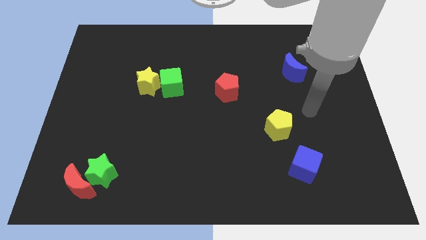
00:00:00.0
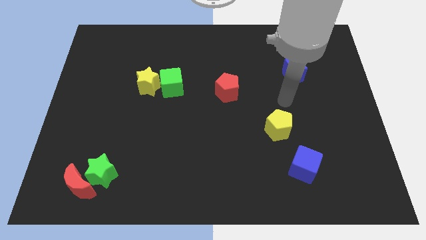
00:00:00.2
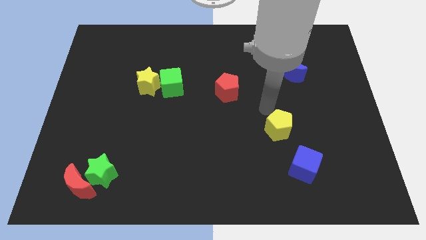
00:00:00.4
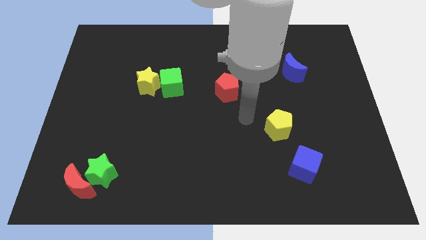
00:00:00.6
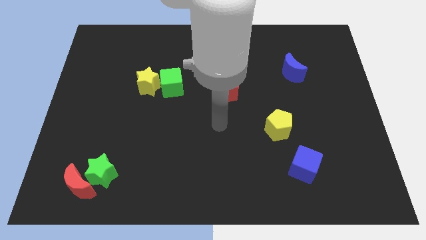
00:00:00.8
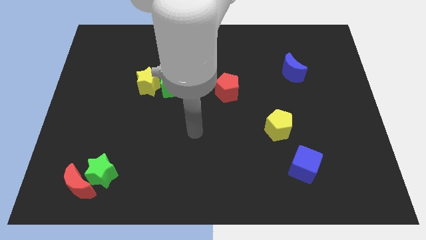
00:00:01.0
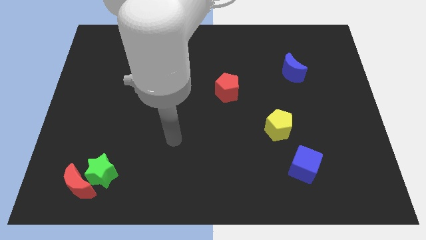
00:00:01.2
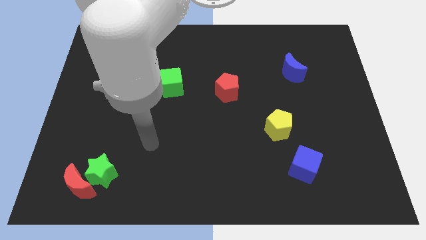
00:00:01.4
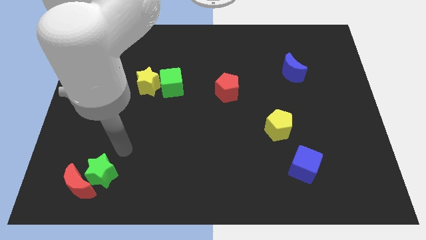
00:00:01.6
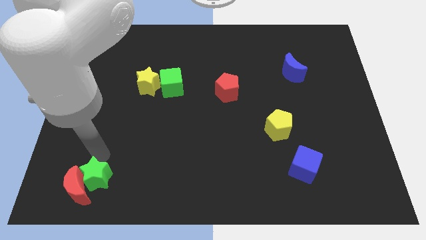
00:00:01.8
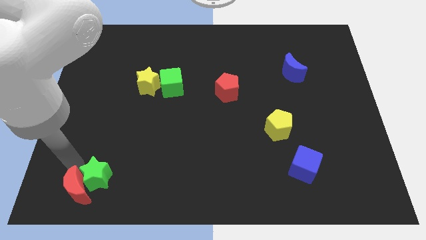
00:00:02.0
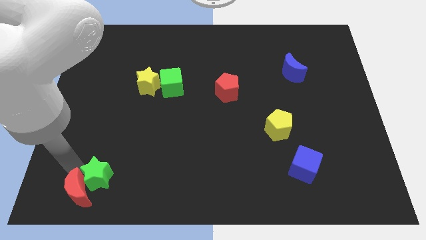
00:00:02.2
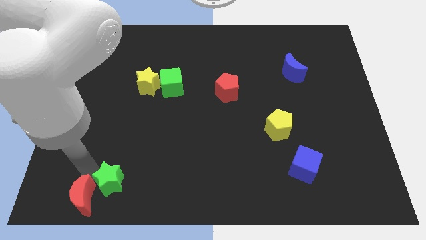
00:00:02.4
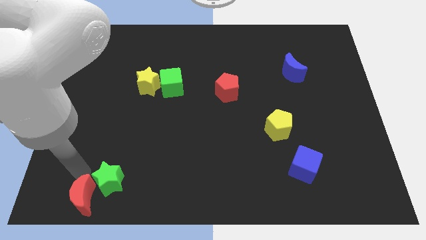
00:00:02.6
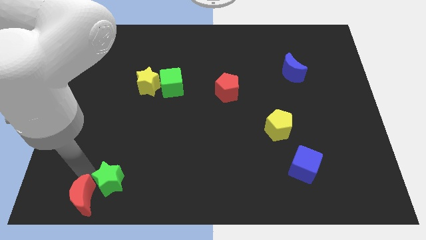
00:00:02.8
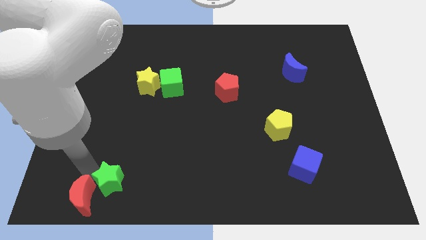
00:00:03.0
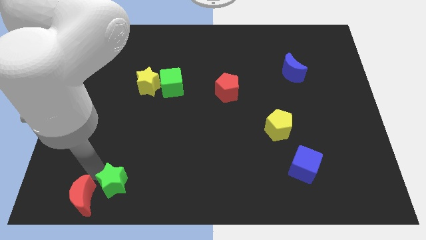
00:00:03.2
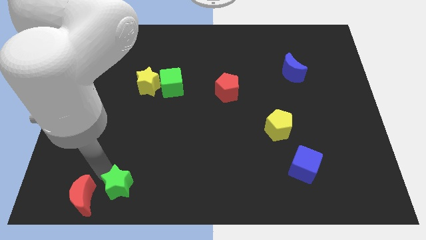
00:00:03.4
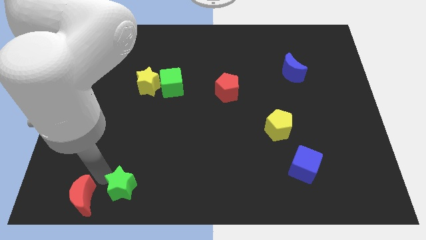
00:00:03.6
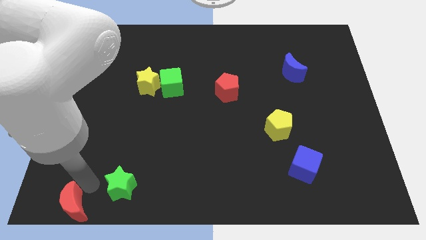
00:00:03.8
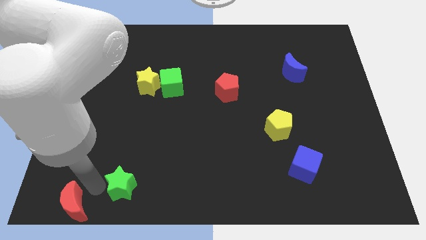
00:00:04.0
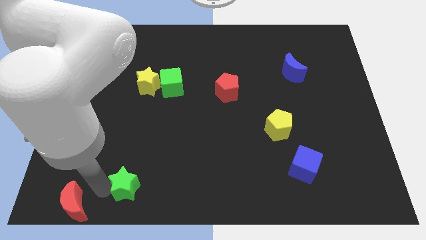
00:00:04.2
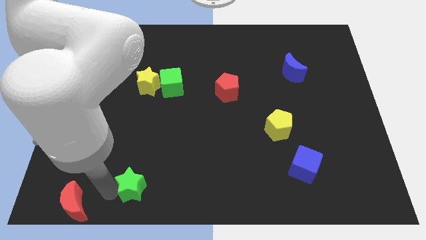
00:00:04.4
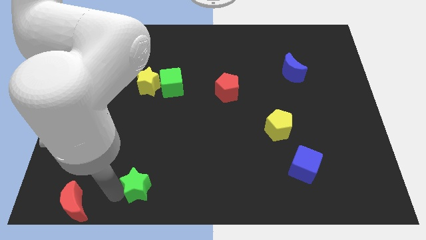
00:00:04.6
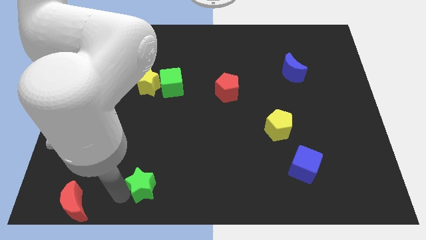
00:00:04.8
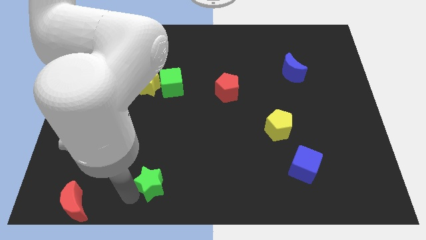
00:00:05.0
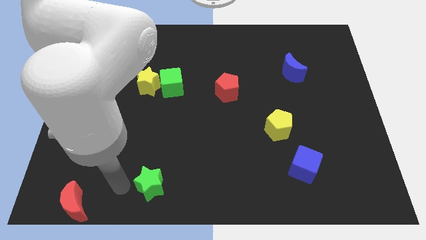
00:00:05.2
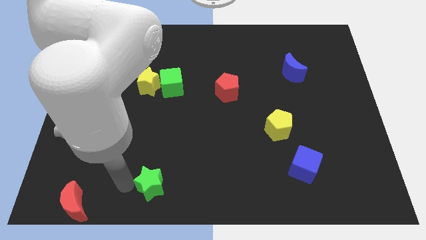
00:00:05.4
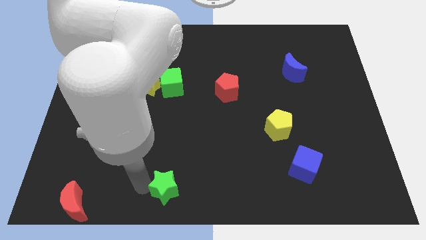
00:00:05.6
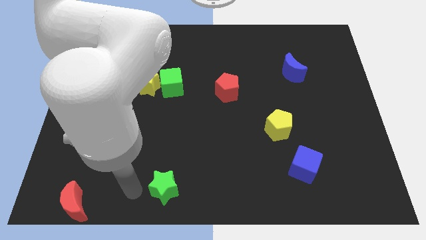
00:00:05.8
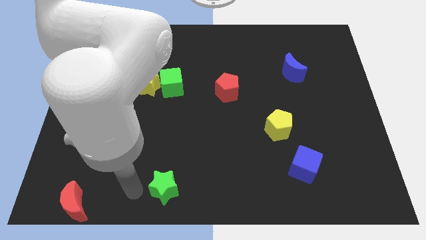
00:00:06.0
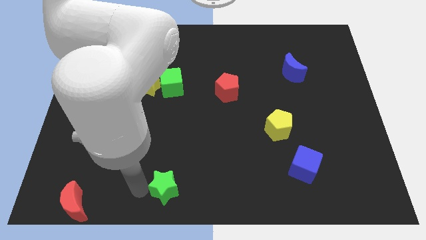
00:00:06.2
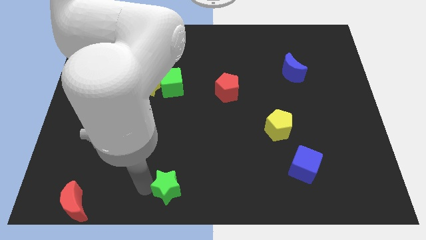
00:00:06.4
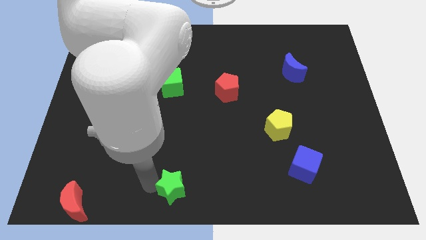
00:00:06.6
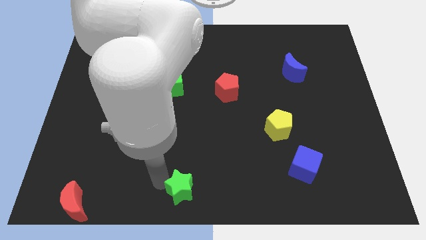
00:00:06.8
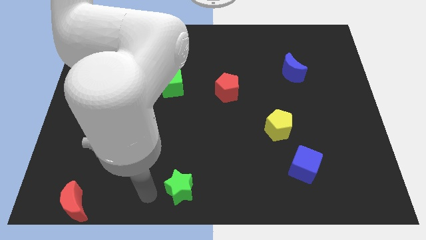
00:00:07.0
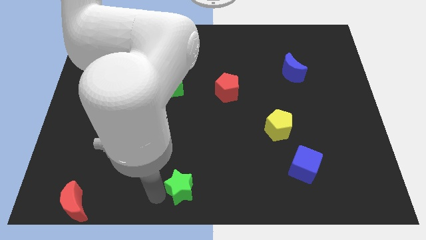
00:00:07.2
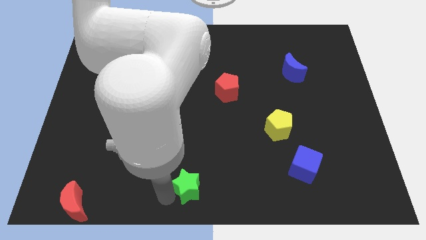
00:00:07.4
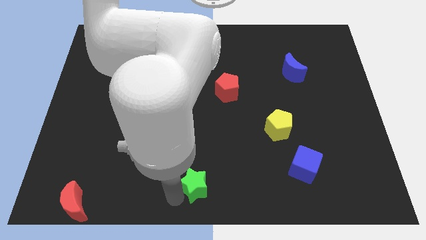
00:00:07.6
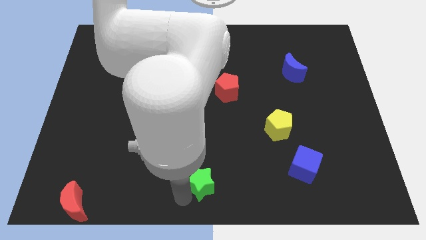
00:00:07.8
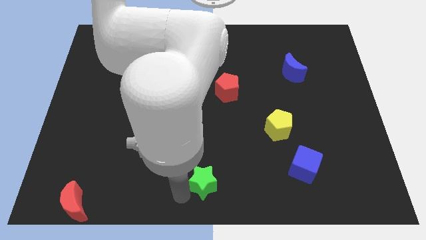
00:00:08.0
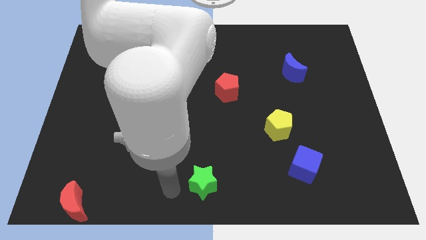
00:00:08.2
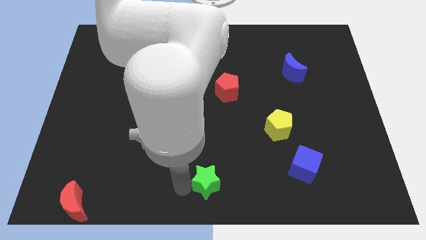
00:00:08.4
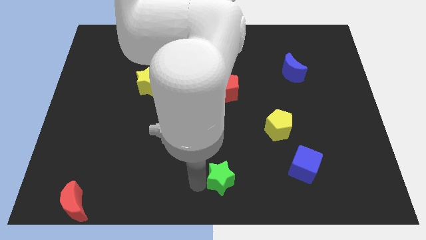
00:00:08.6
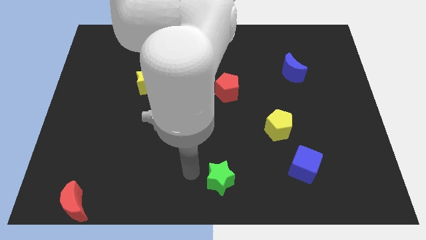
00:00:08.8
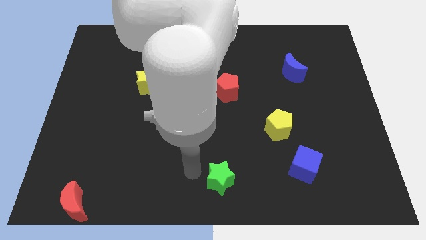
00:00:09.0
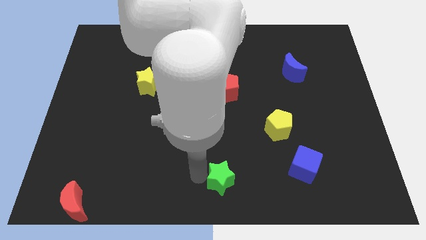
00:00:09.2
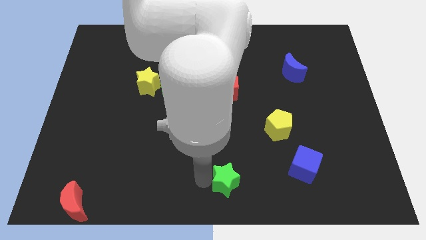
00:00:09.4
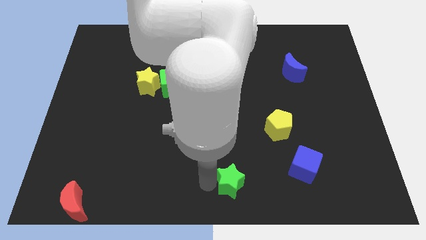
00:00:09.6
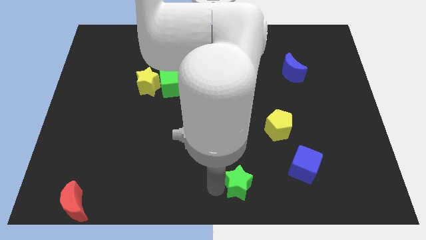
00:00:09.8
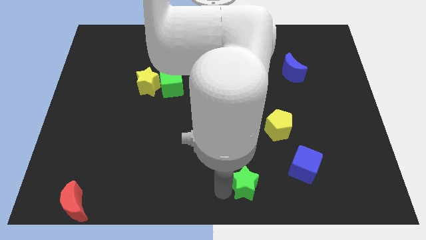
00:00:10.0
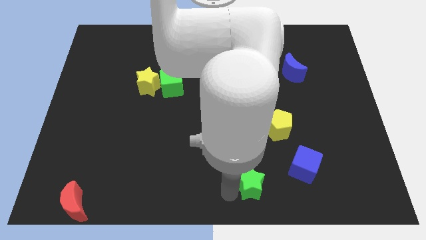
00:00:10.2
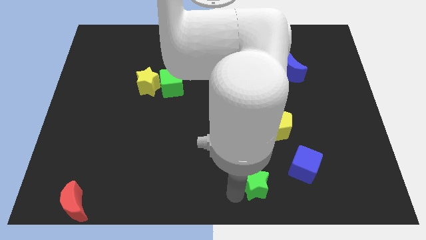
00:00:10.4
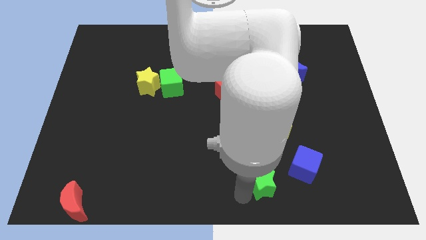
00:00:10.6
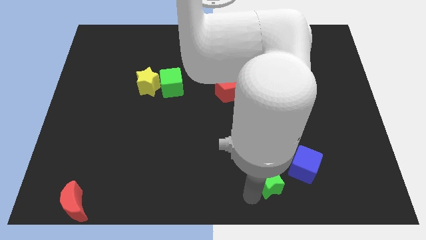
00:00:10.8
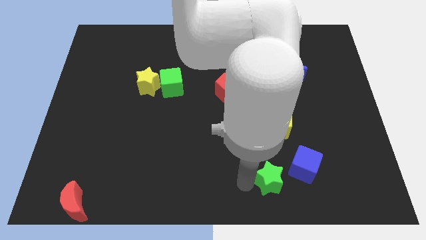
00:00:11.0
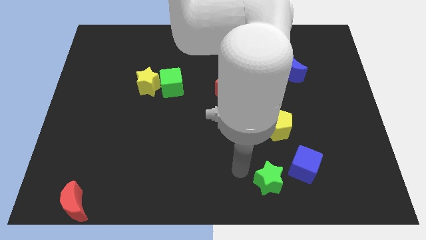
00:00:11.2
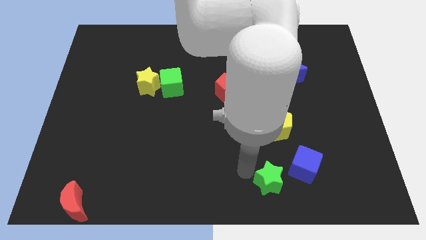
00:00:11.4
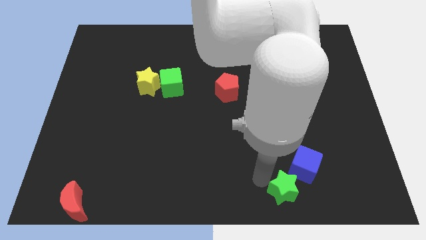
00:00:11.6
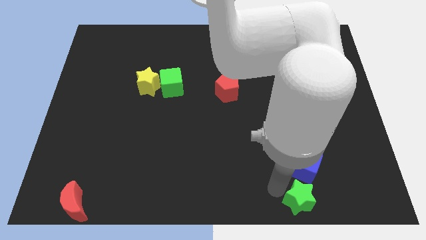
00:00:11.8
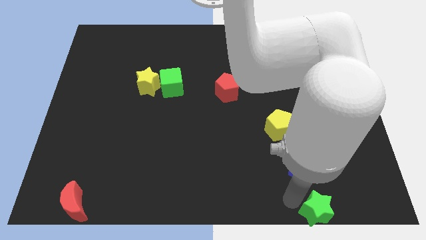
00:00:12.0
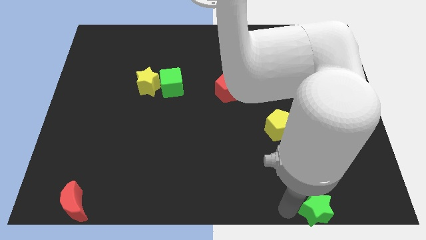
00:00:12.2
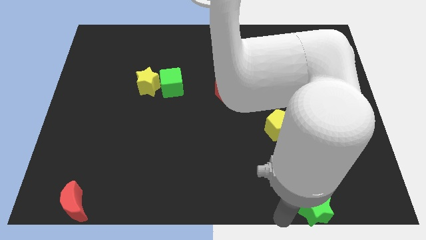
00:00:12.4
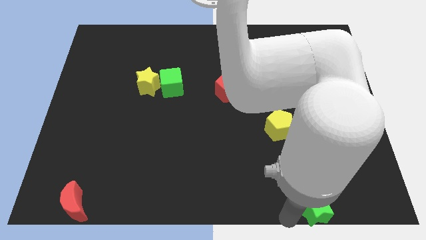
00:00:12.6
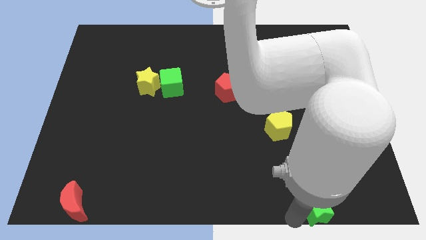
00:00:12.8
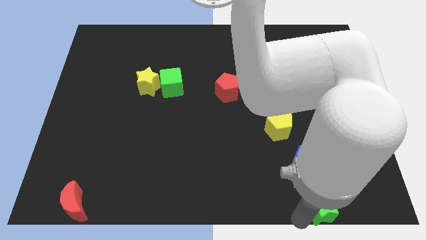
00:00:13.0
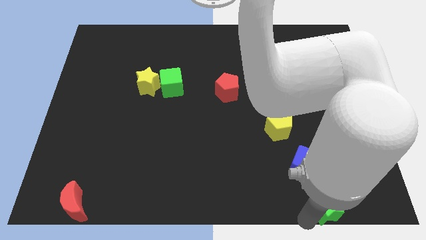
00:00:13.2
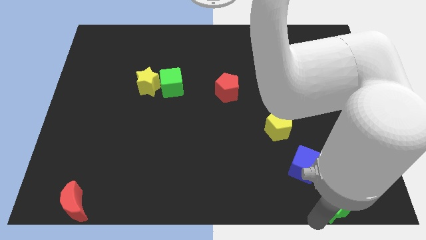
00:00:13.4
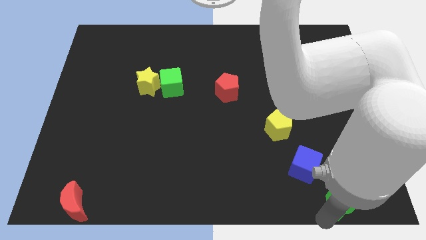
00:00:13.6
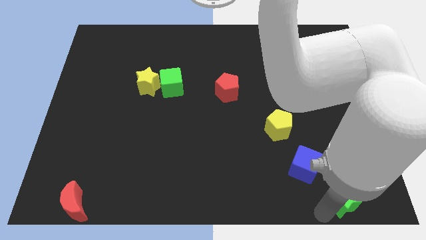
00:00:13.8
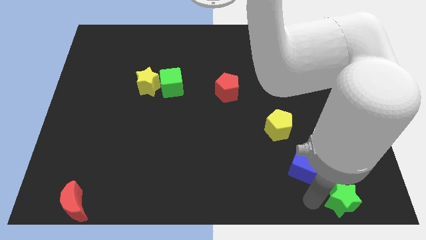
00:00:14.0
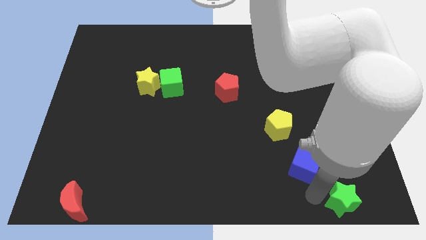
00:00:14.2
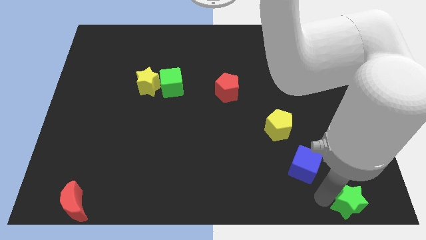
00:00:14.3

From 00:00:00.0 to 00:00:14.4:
put the green star to the lower right corner
